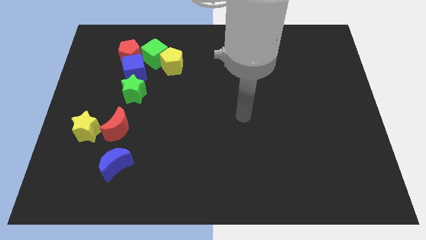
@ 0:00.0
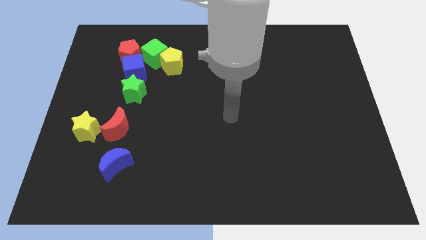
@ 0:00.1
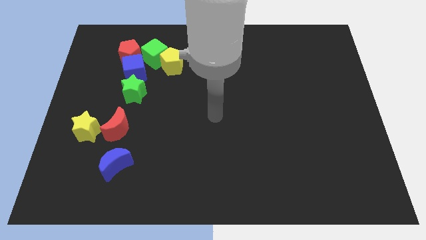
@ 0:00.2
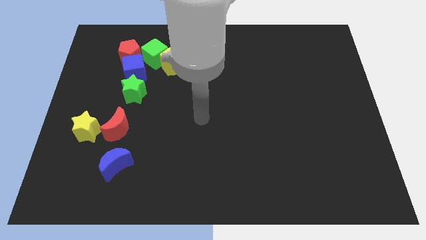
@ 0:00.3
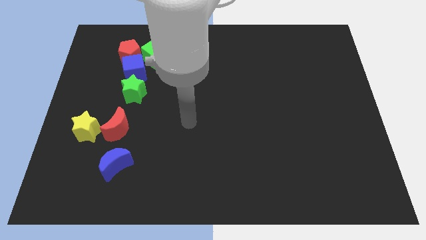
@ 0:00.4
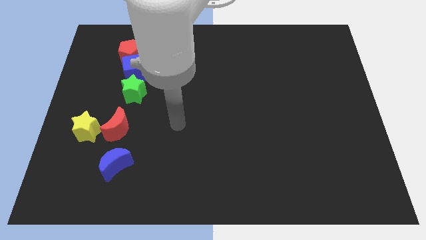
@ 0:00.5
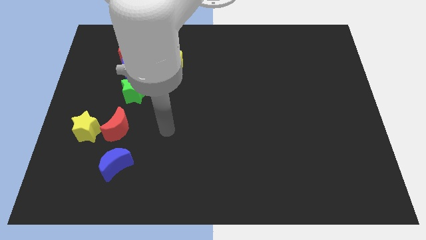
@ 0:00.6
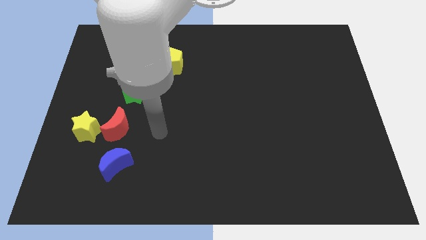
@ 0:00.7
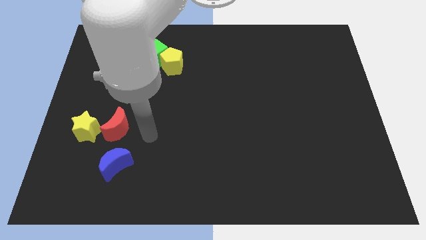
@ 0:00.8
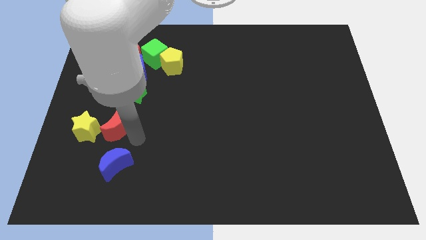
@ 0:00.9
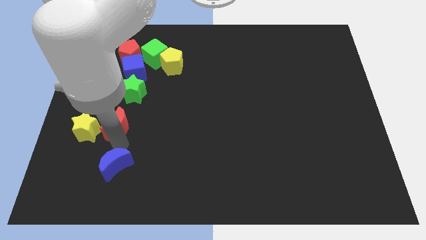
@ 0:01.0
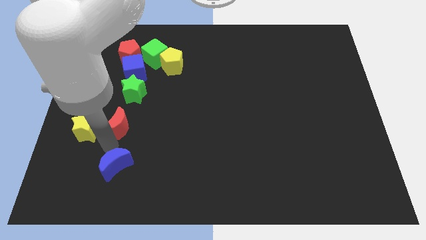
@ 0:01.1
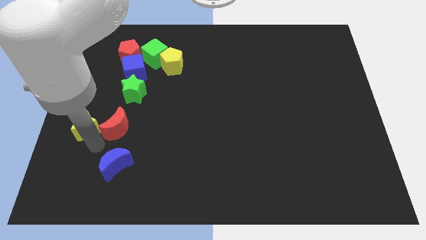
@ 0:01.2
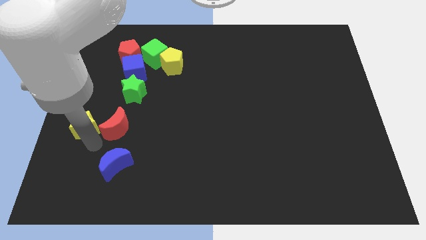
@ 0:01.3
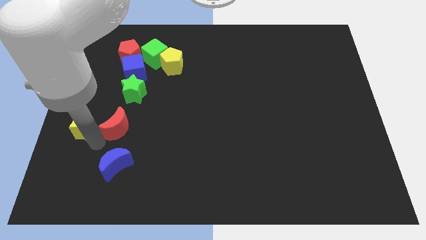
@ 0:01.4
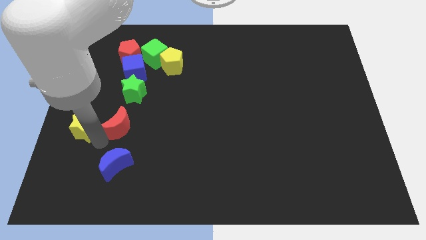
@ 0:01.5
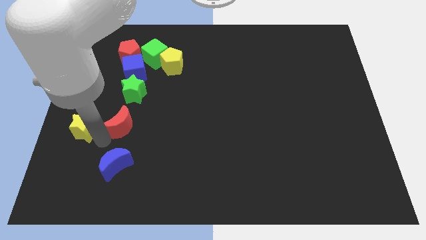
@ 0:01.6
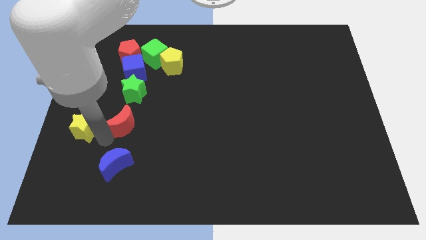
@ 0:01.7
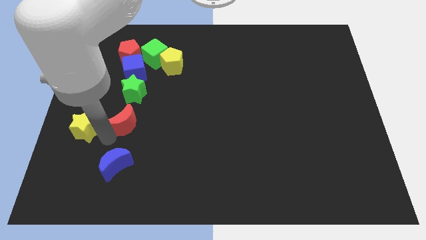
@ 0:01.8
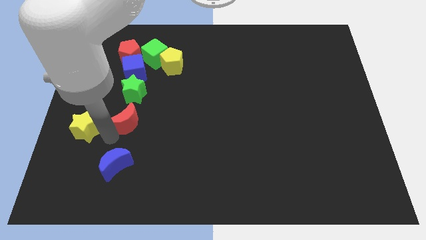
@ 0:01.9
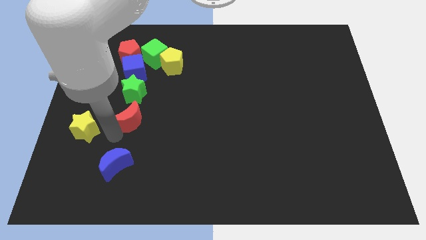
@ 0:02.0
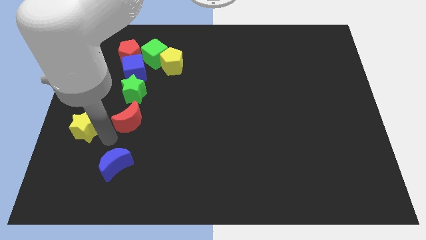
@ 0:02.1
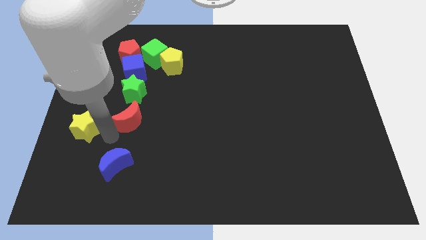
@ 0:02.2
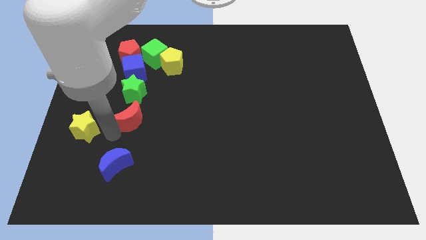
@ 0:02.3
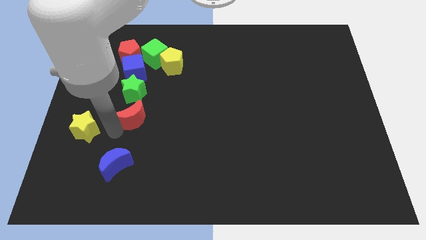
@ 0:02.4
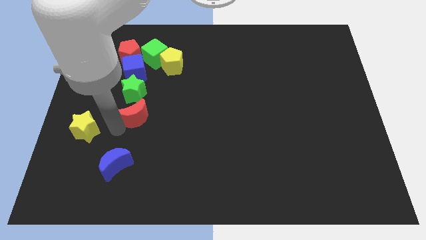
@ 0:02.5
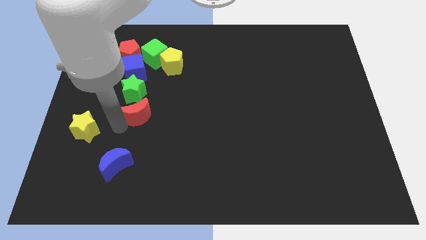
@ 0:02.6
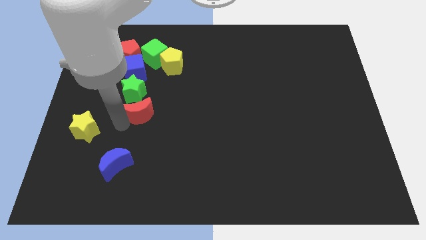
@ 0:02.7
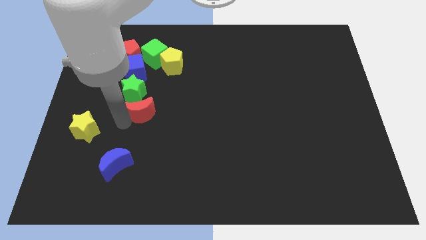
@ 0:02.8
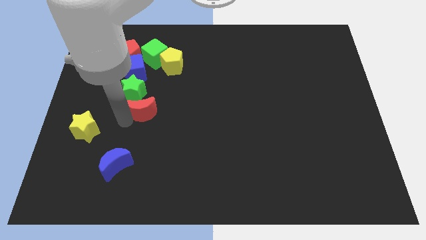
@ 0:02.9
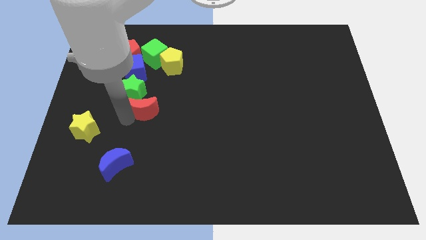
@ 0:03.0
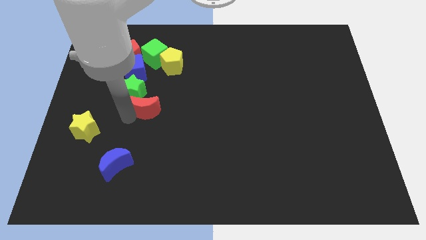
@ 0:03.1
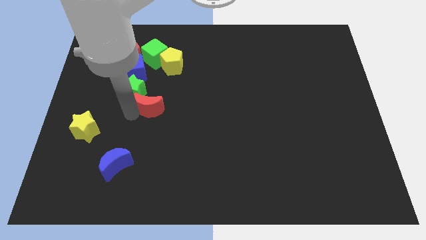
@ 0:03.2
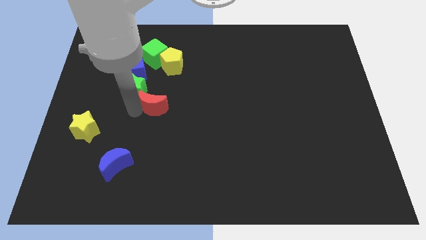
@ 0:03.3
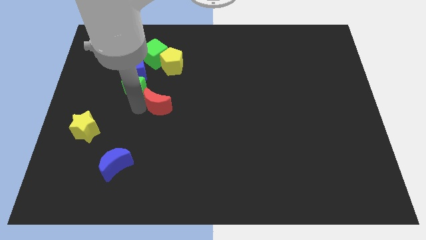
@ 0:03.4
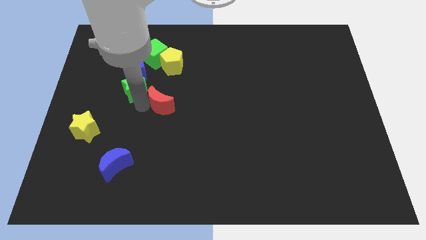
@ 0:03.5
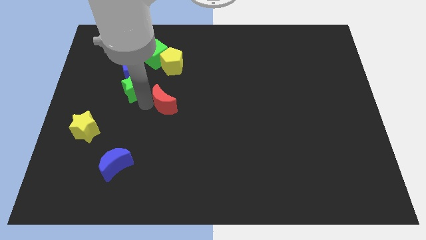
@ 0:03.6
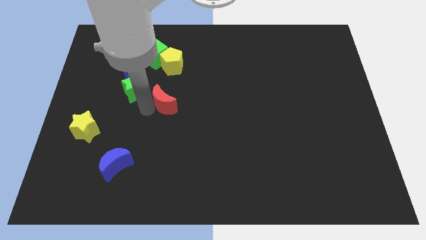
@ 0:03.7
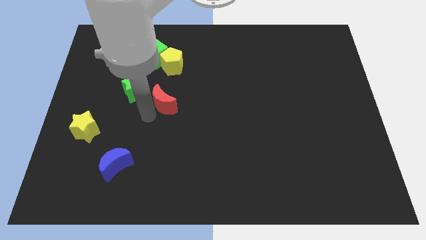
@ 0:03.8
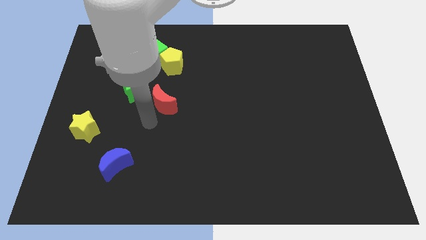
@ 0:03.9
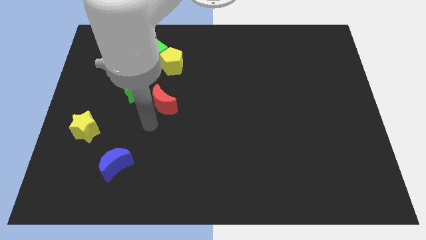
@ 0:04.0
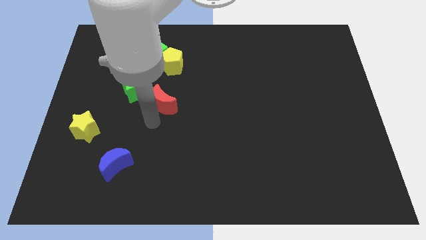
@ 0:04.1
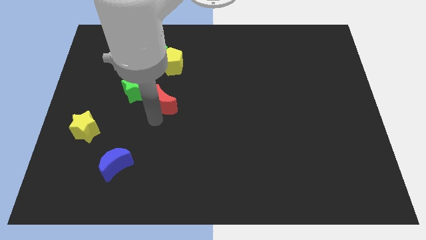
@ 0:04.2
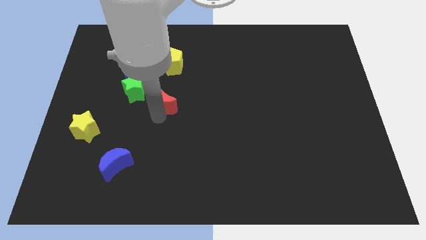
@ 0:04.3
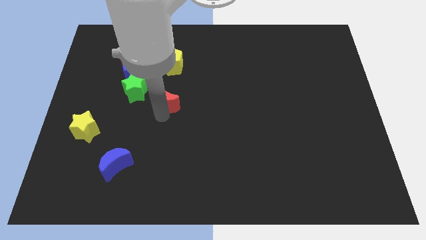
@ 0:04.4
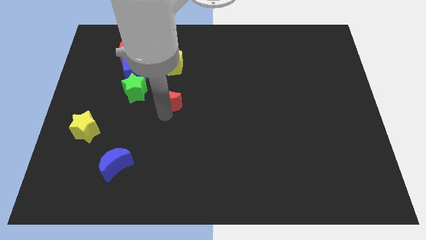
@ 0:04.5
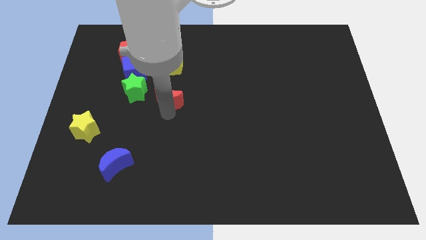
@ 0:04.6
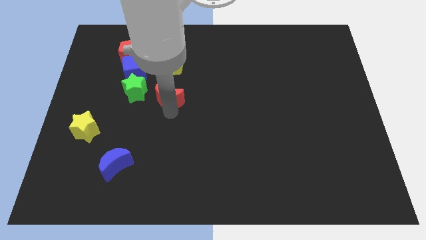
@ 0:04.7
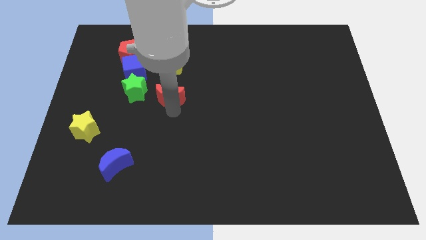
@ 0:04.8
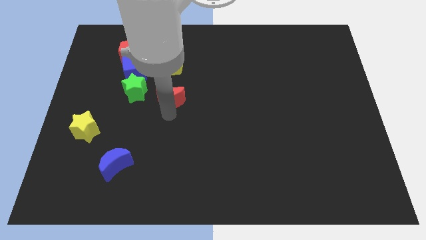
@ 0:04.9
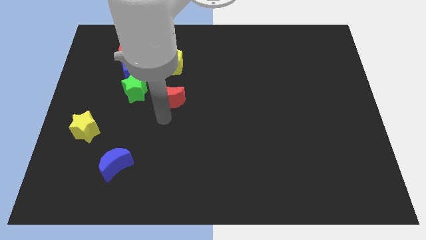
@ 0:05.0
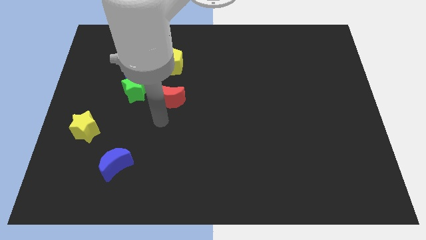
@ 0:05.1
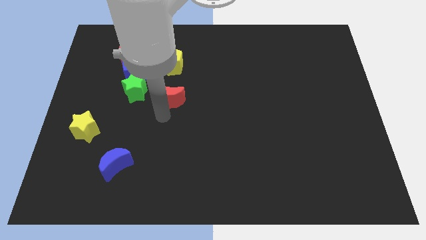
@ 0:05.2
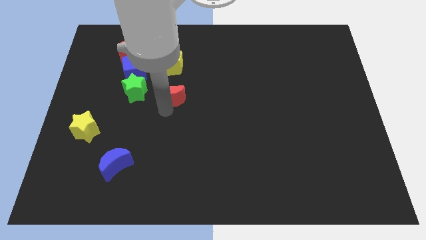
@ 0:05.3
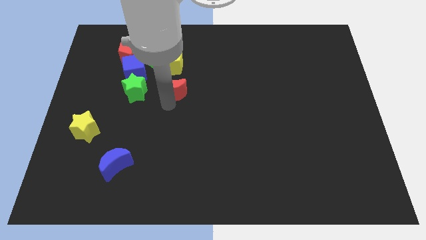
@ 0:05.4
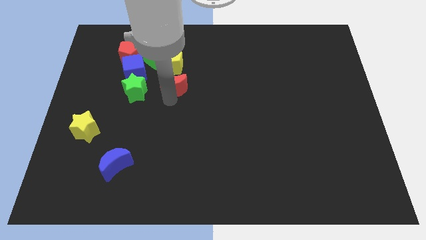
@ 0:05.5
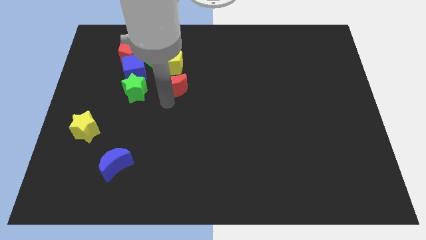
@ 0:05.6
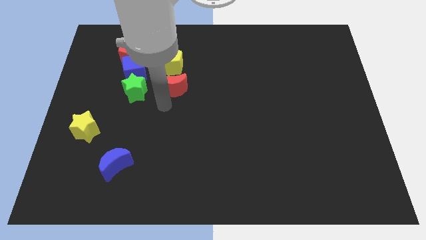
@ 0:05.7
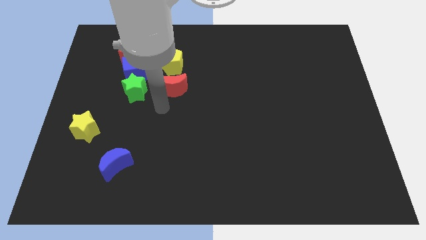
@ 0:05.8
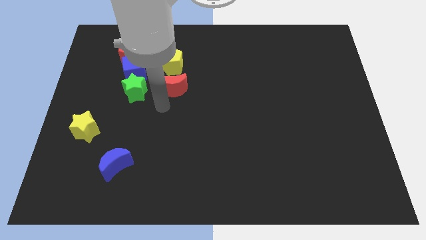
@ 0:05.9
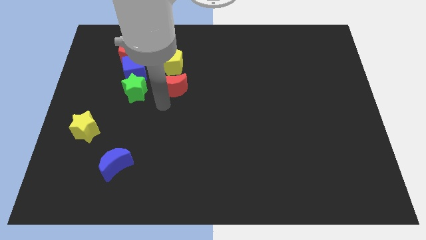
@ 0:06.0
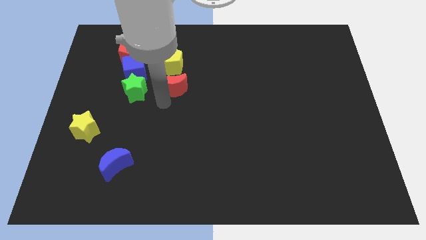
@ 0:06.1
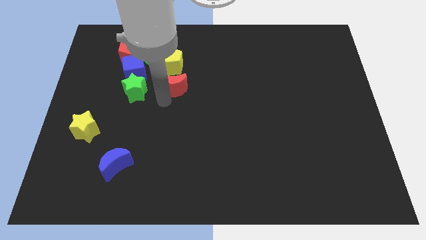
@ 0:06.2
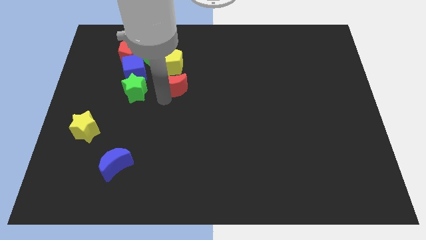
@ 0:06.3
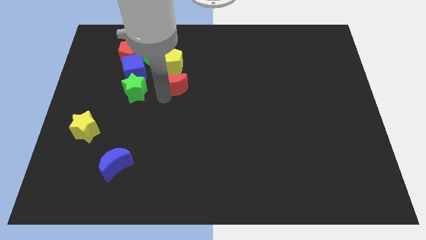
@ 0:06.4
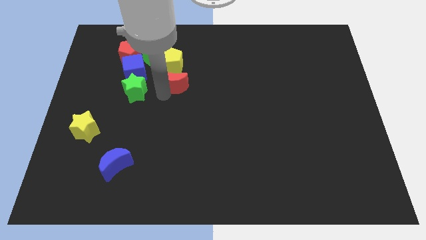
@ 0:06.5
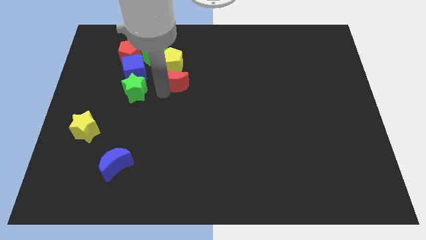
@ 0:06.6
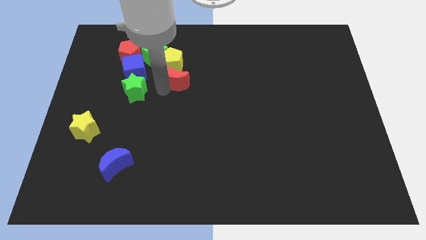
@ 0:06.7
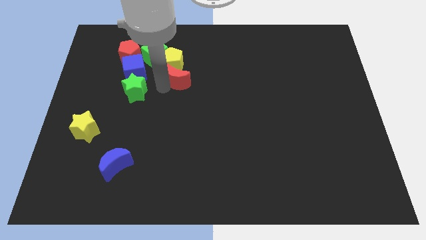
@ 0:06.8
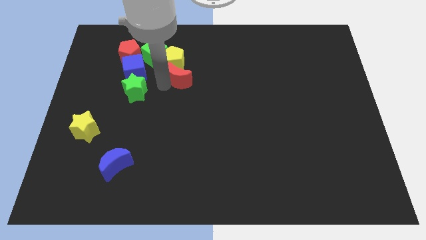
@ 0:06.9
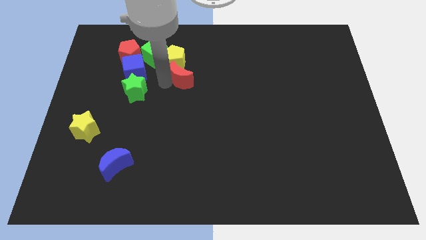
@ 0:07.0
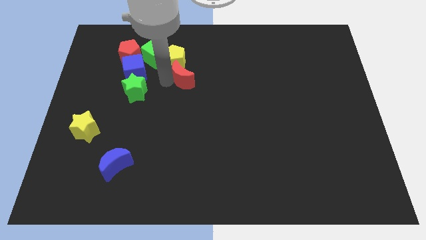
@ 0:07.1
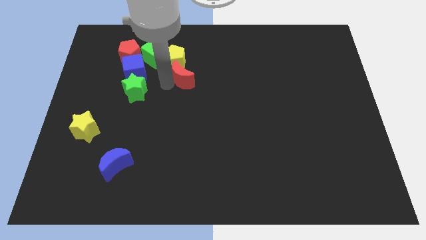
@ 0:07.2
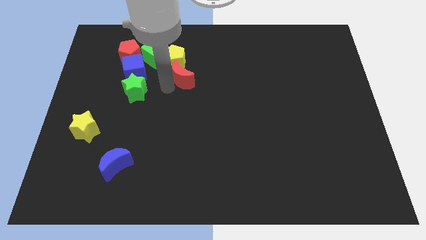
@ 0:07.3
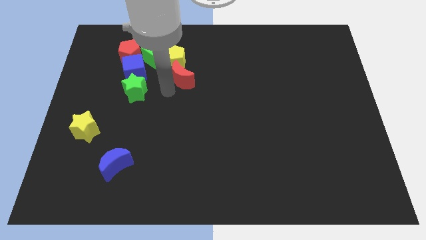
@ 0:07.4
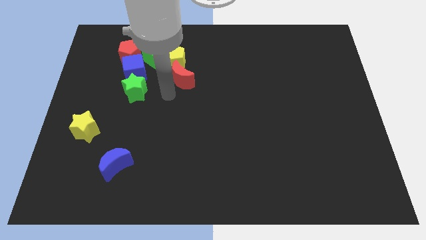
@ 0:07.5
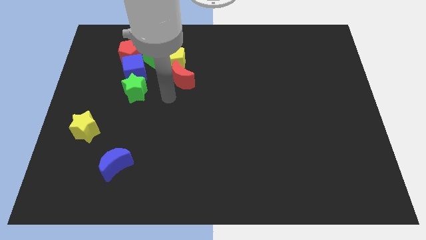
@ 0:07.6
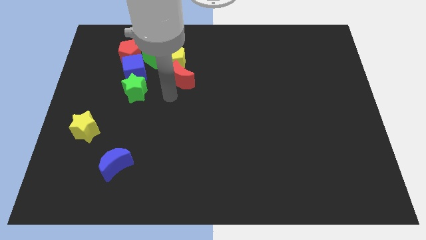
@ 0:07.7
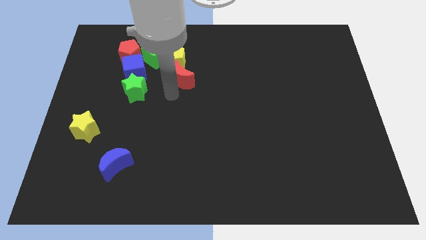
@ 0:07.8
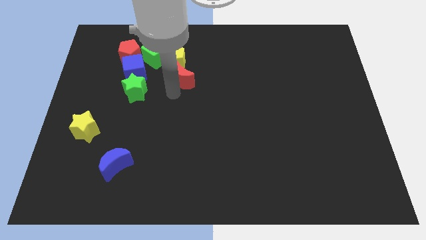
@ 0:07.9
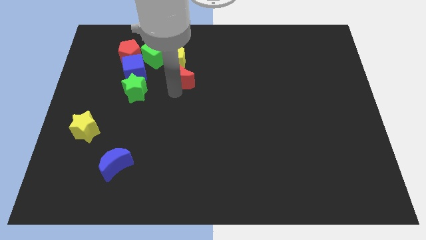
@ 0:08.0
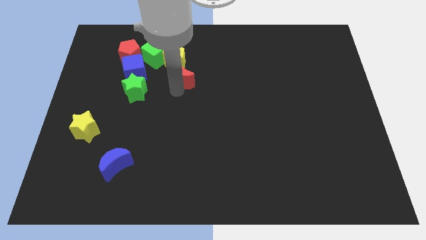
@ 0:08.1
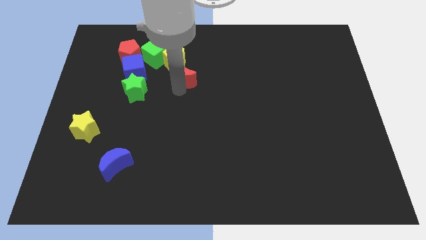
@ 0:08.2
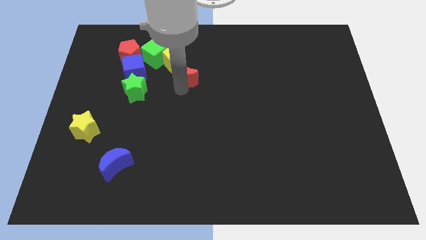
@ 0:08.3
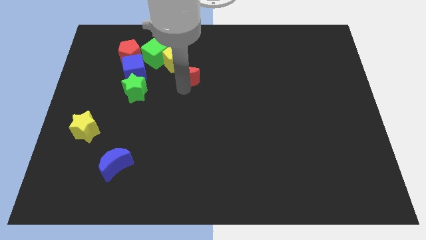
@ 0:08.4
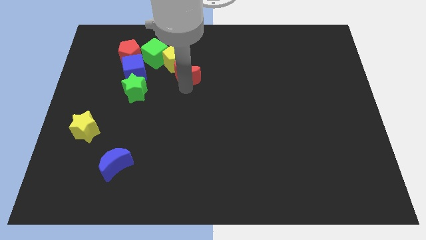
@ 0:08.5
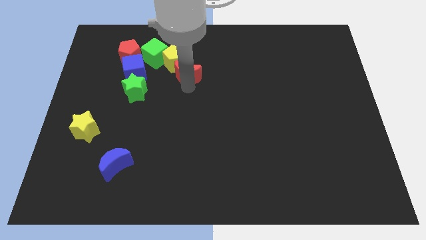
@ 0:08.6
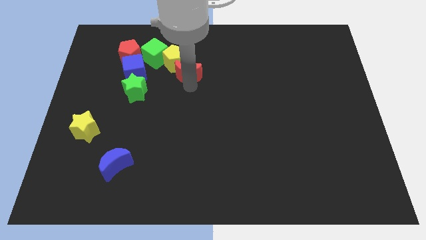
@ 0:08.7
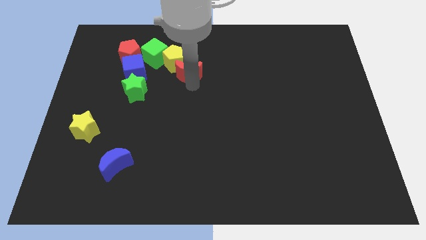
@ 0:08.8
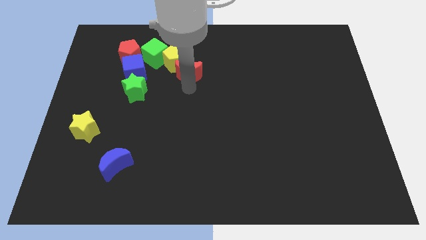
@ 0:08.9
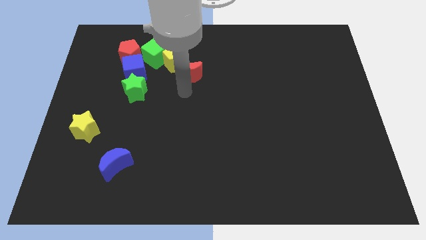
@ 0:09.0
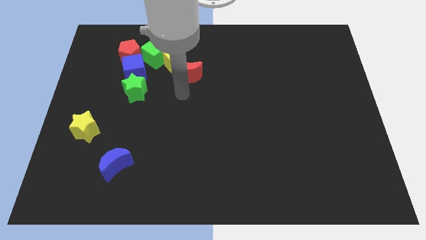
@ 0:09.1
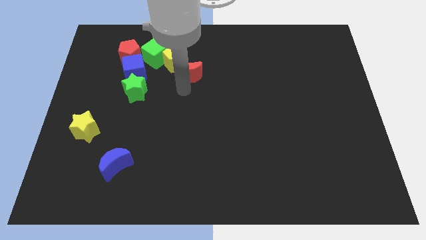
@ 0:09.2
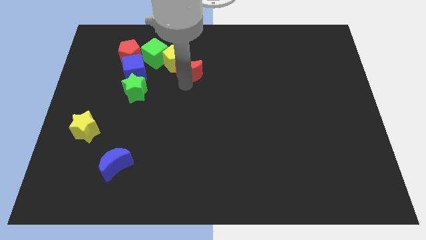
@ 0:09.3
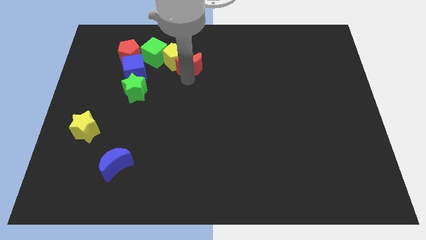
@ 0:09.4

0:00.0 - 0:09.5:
put the red moon to the right side of the green cube
